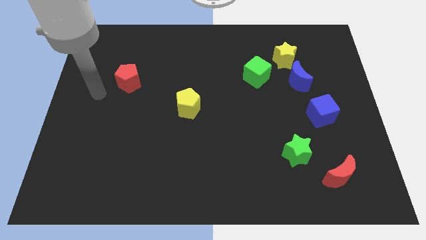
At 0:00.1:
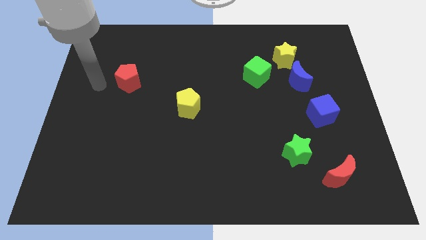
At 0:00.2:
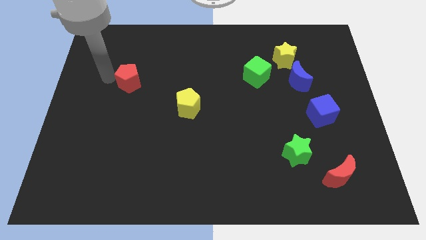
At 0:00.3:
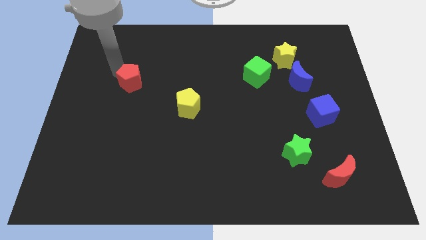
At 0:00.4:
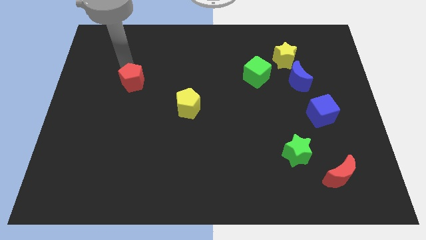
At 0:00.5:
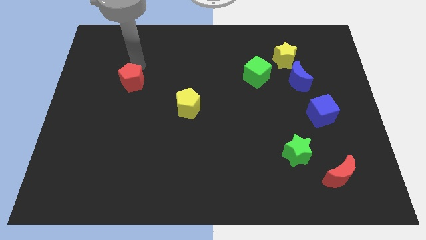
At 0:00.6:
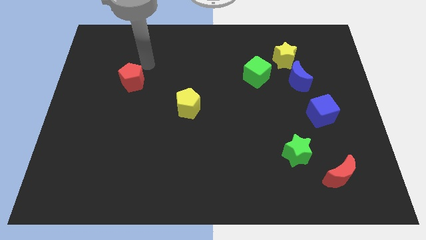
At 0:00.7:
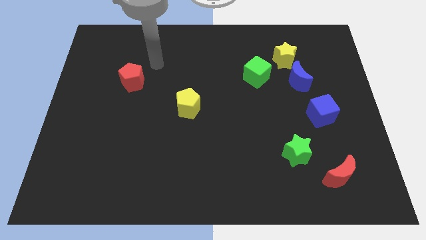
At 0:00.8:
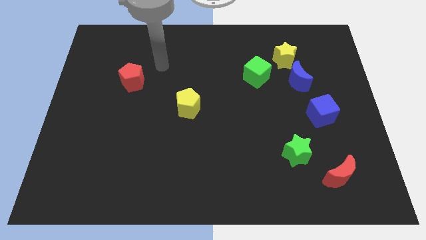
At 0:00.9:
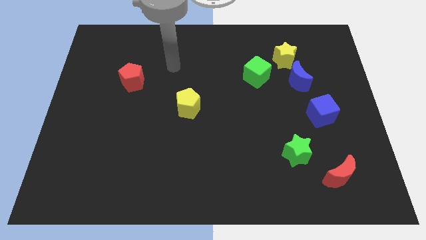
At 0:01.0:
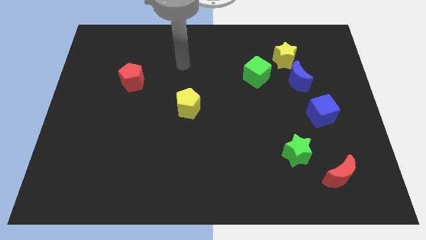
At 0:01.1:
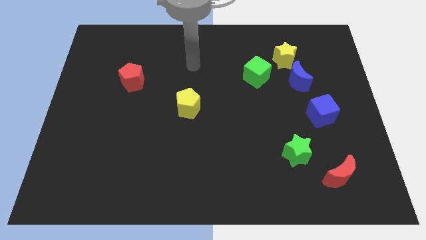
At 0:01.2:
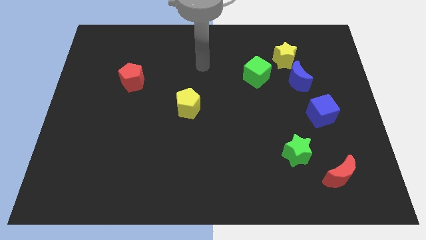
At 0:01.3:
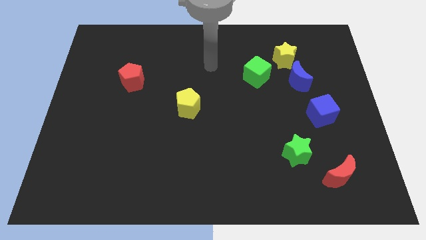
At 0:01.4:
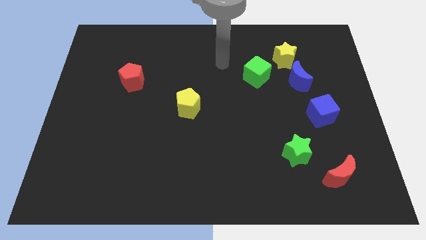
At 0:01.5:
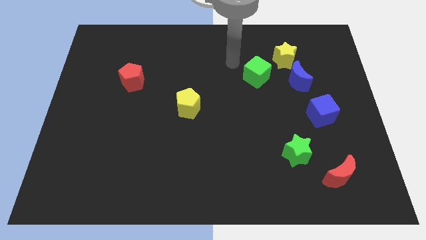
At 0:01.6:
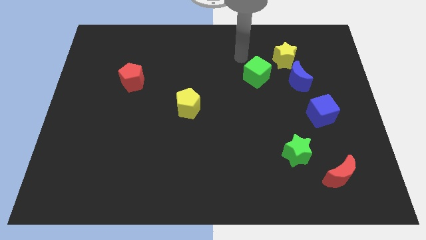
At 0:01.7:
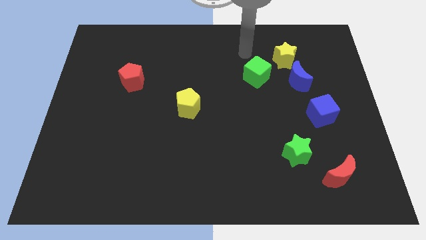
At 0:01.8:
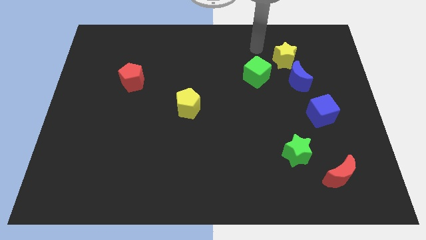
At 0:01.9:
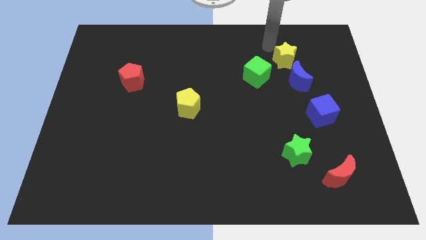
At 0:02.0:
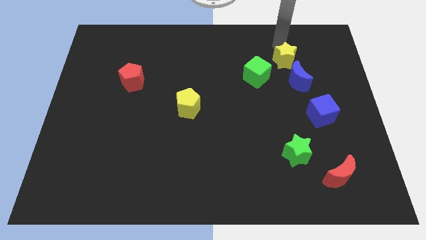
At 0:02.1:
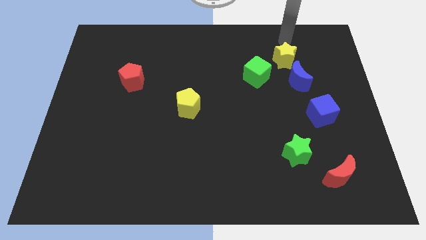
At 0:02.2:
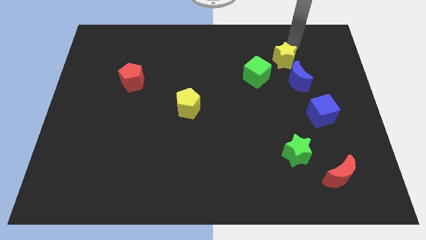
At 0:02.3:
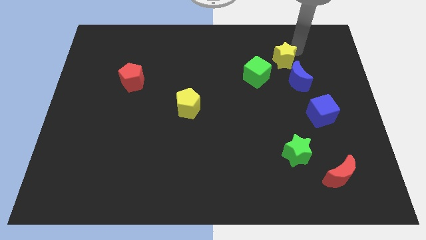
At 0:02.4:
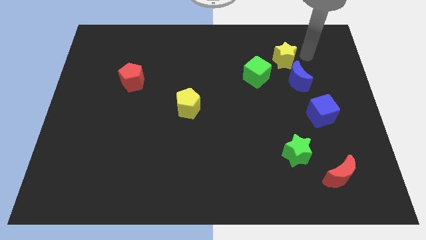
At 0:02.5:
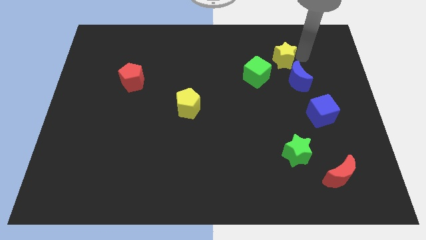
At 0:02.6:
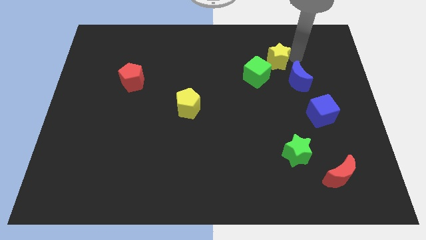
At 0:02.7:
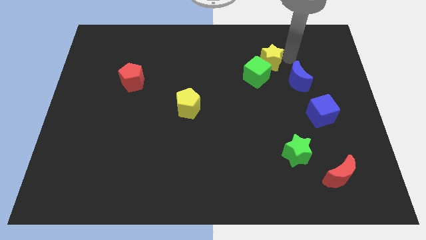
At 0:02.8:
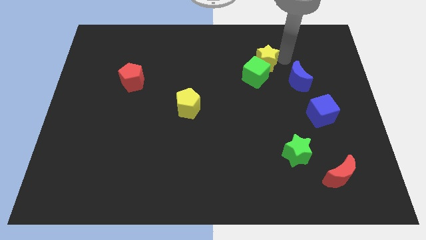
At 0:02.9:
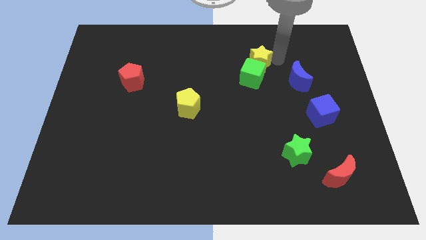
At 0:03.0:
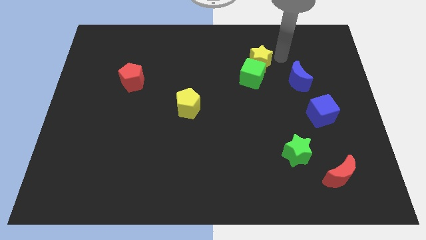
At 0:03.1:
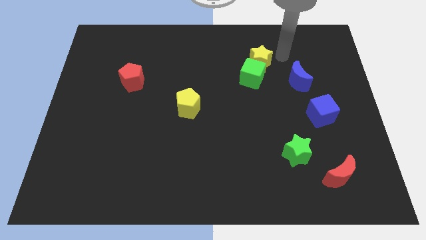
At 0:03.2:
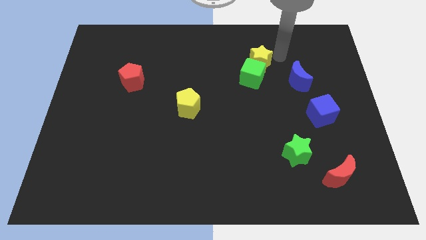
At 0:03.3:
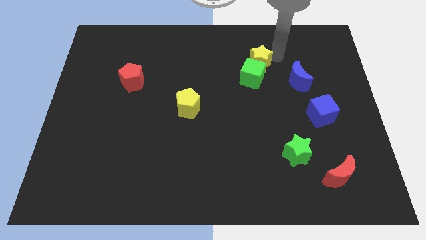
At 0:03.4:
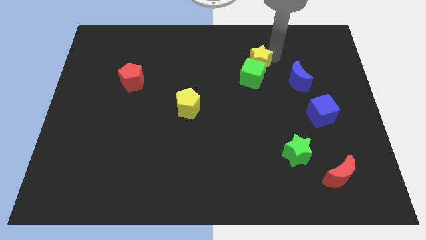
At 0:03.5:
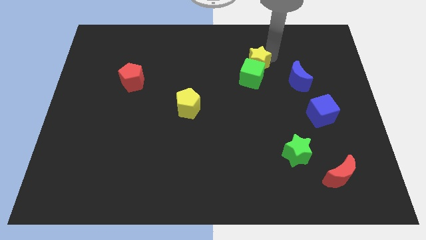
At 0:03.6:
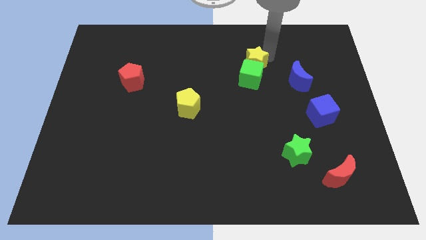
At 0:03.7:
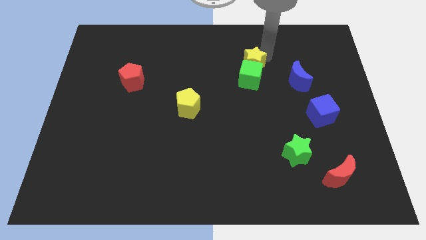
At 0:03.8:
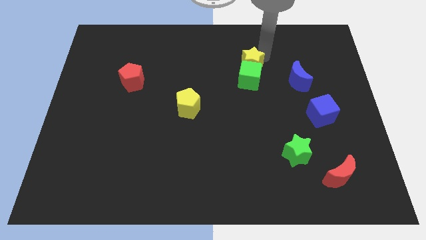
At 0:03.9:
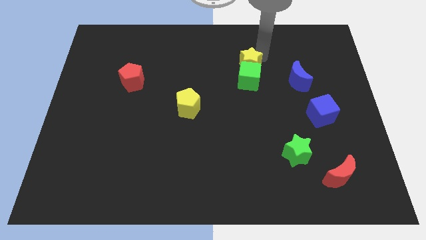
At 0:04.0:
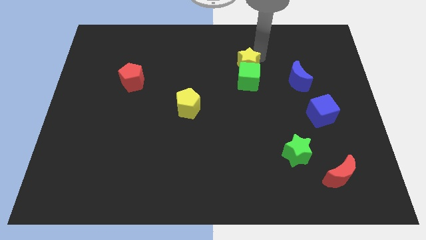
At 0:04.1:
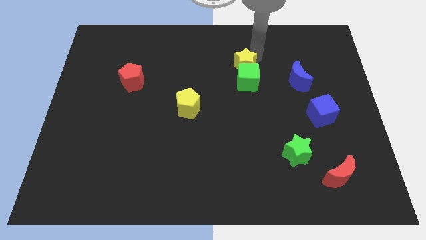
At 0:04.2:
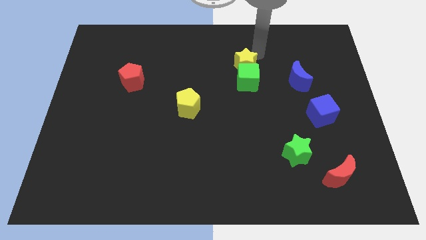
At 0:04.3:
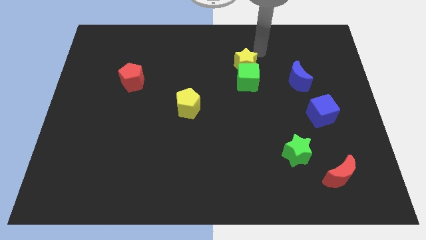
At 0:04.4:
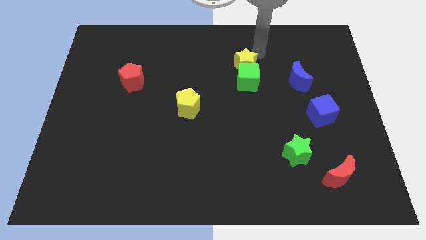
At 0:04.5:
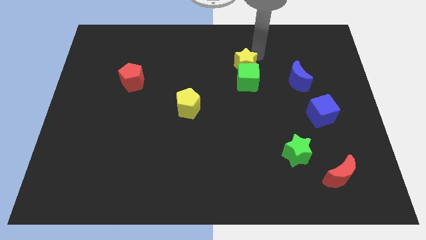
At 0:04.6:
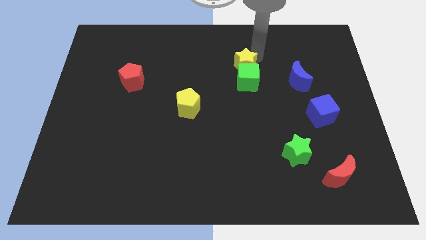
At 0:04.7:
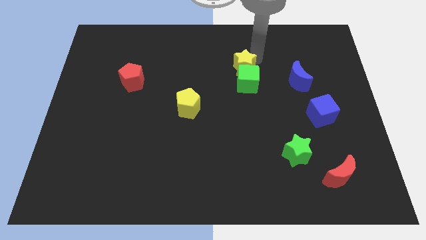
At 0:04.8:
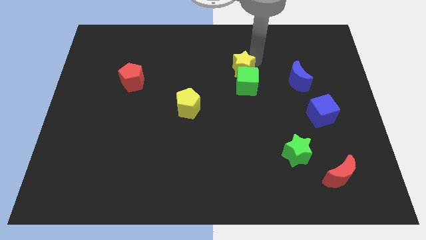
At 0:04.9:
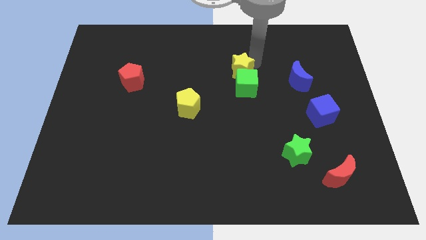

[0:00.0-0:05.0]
put the yellow star to the middle of the board

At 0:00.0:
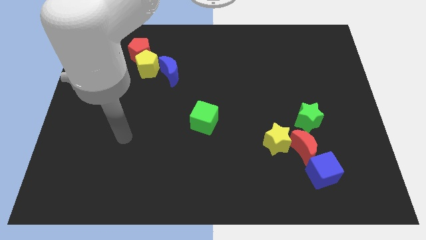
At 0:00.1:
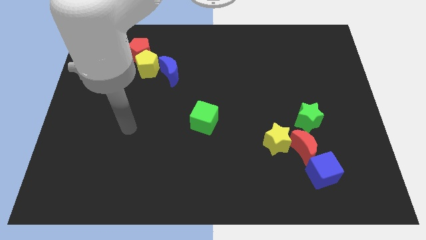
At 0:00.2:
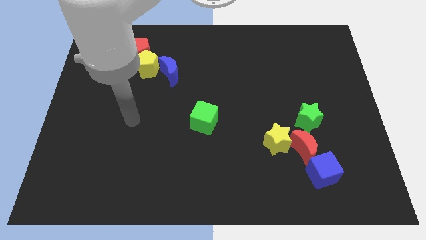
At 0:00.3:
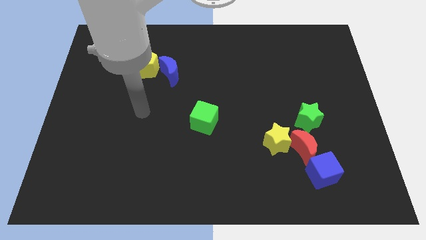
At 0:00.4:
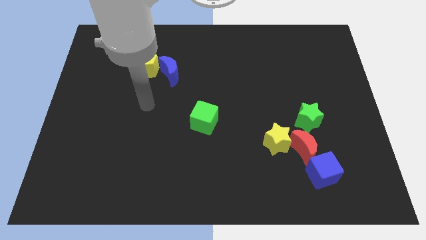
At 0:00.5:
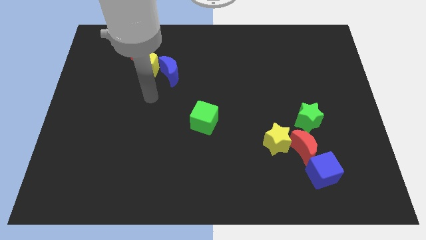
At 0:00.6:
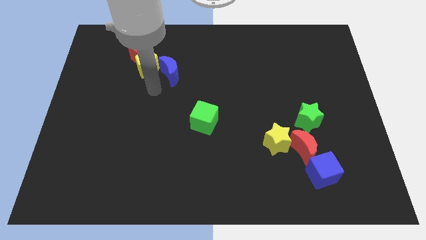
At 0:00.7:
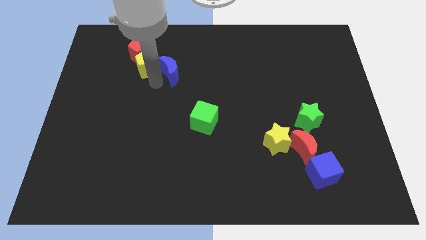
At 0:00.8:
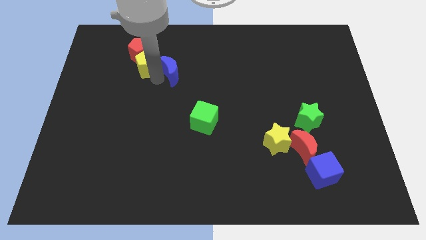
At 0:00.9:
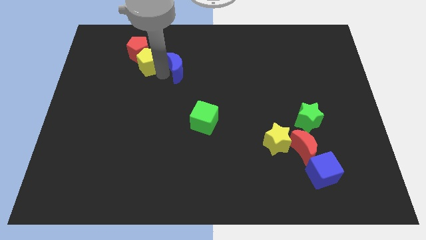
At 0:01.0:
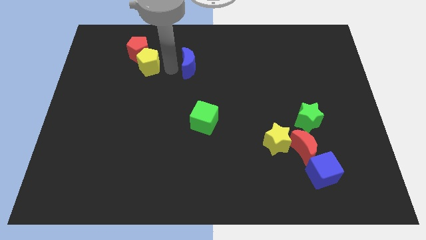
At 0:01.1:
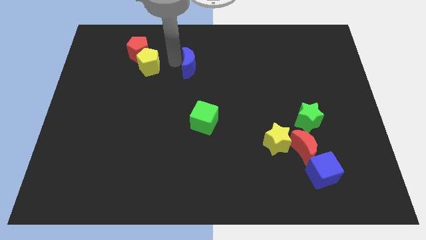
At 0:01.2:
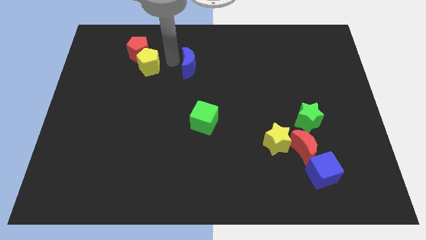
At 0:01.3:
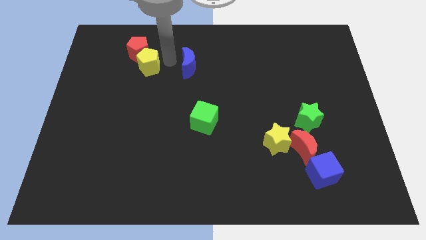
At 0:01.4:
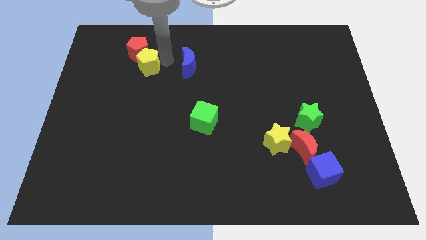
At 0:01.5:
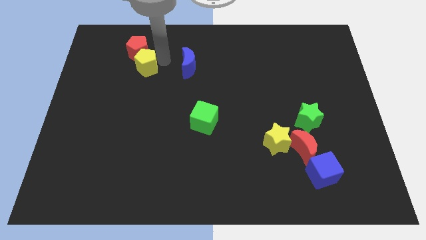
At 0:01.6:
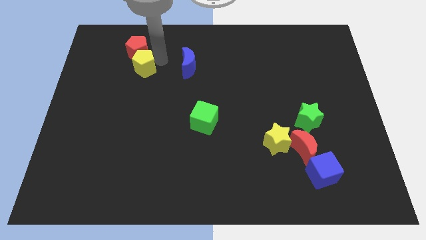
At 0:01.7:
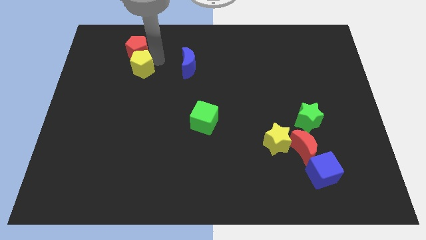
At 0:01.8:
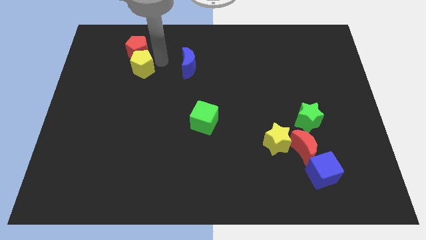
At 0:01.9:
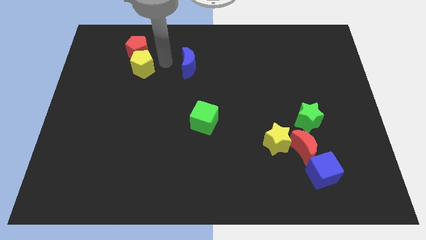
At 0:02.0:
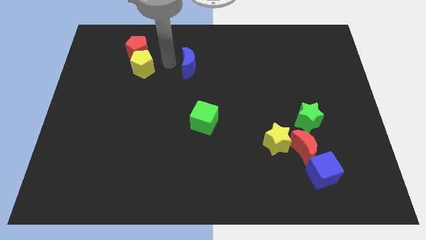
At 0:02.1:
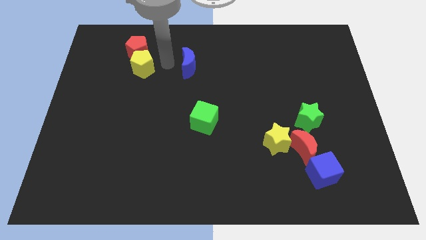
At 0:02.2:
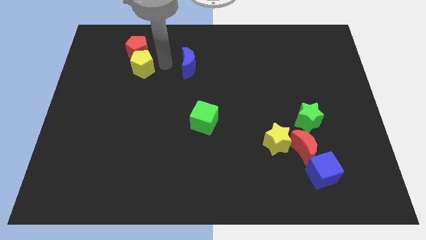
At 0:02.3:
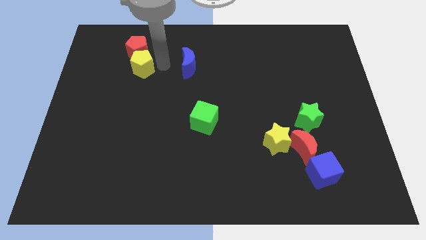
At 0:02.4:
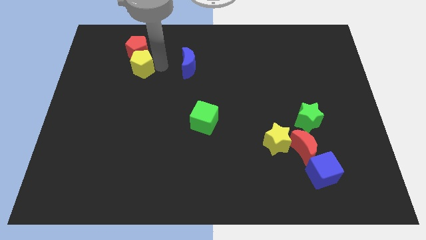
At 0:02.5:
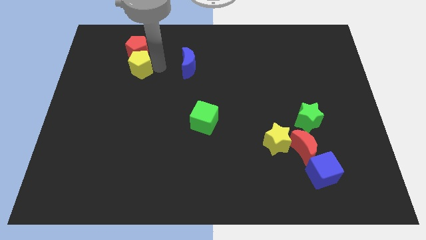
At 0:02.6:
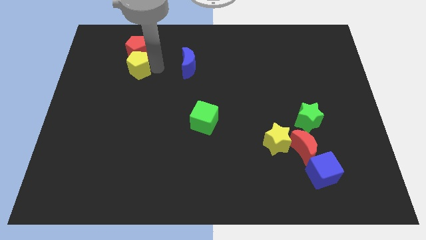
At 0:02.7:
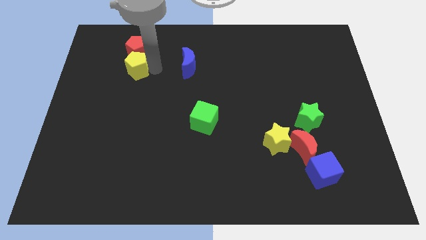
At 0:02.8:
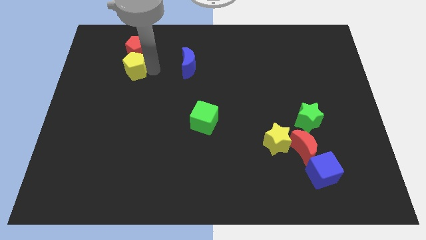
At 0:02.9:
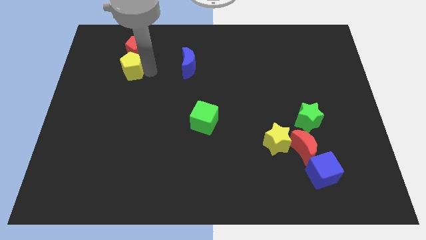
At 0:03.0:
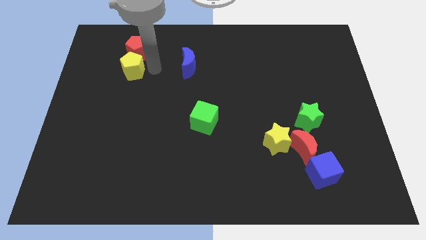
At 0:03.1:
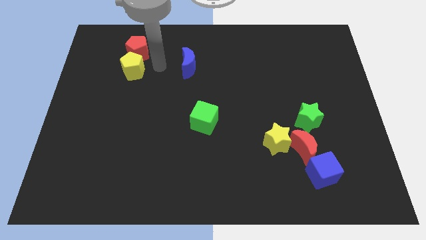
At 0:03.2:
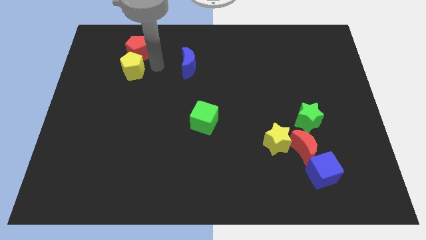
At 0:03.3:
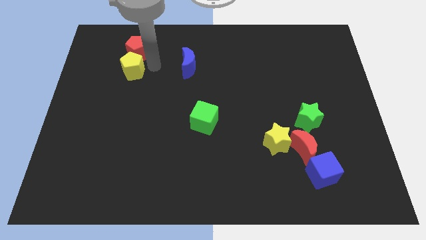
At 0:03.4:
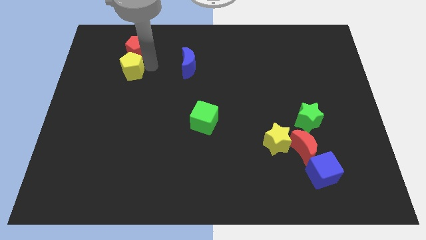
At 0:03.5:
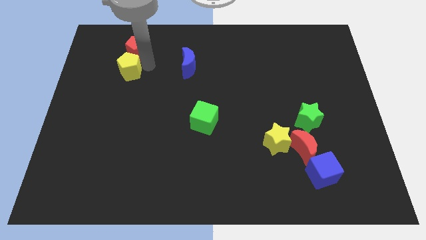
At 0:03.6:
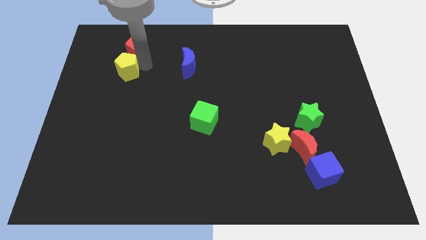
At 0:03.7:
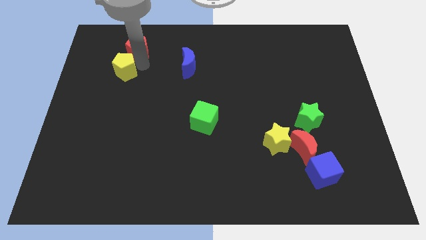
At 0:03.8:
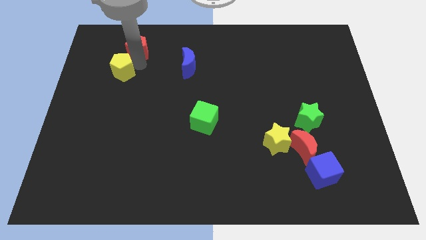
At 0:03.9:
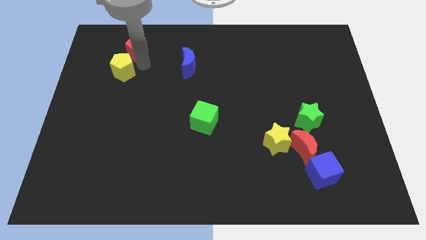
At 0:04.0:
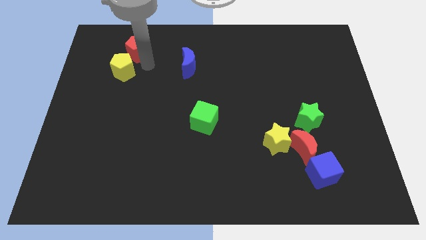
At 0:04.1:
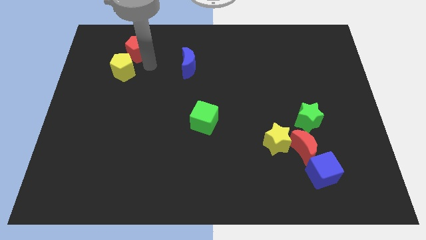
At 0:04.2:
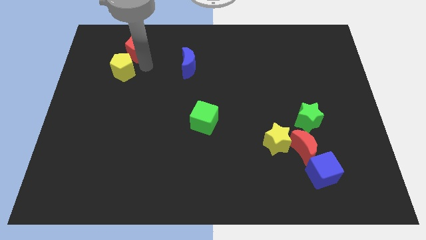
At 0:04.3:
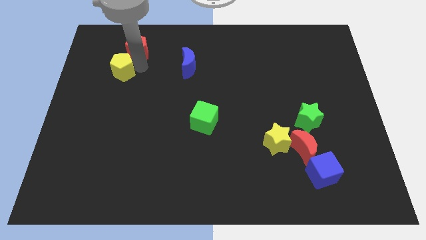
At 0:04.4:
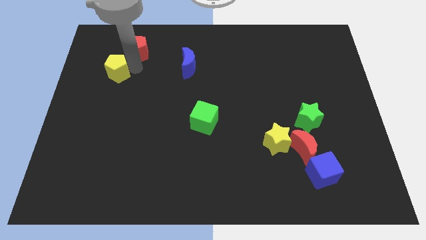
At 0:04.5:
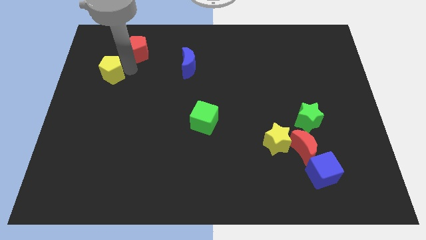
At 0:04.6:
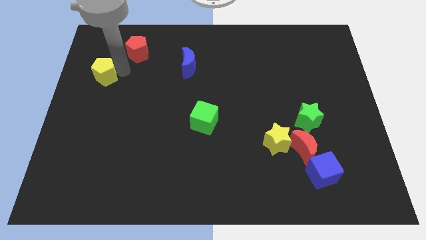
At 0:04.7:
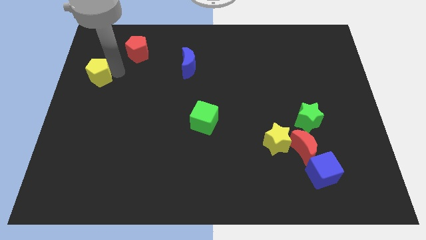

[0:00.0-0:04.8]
put the yellow pentagon to the left side of the board
